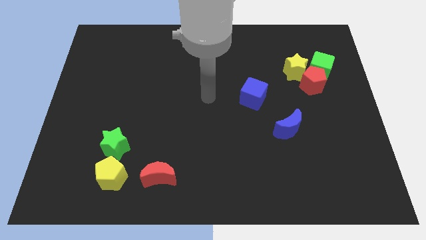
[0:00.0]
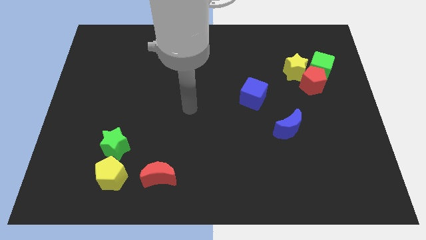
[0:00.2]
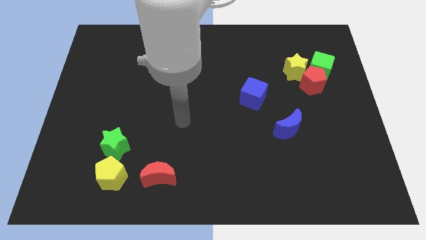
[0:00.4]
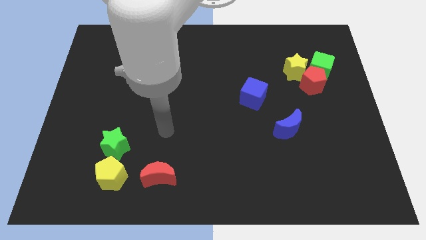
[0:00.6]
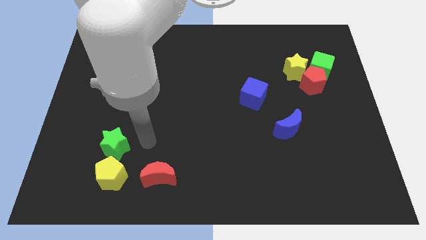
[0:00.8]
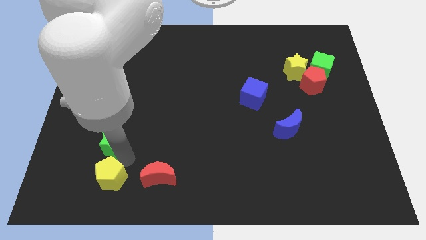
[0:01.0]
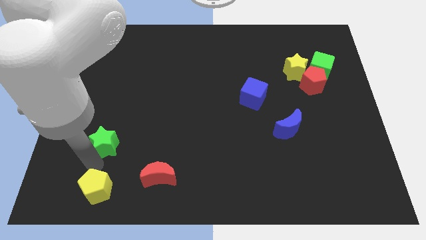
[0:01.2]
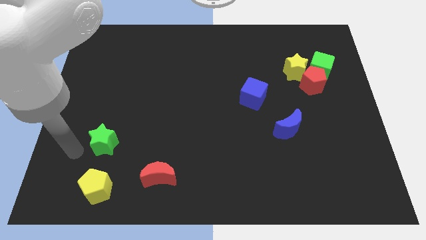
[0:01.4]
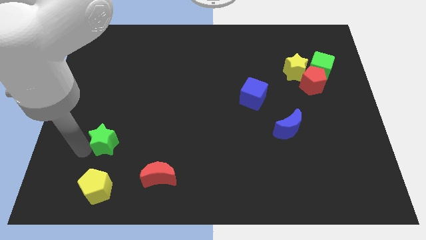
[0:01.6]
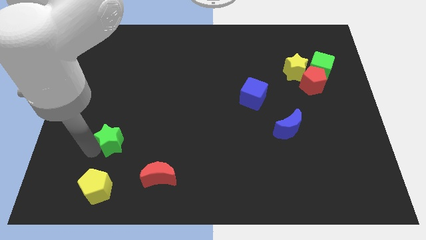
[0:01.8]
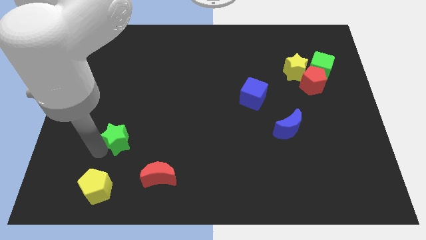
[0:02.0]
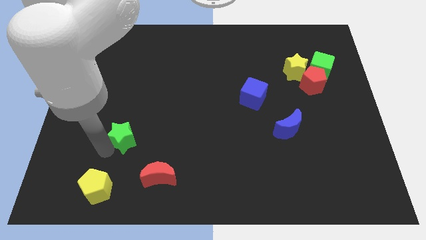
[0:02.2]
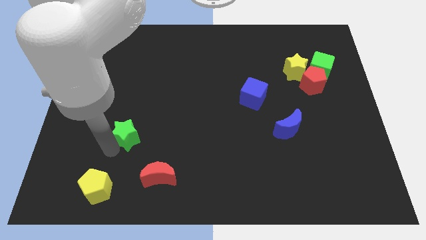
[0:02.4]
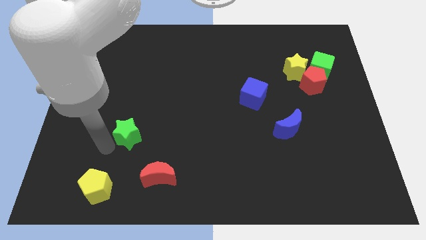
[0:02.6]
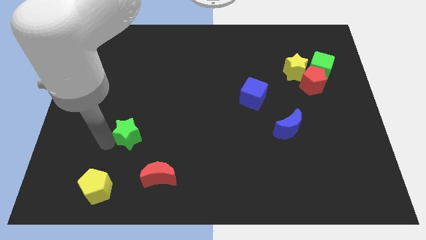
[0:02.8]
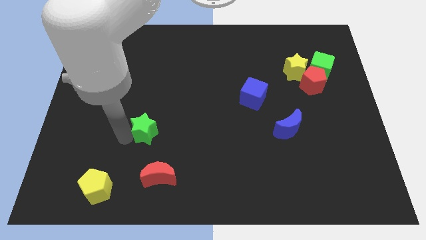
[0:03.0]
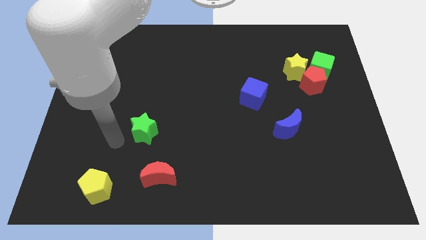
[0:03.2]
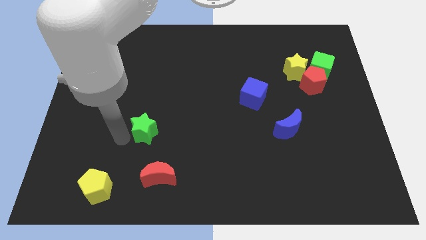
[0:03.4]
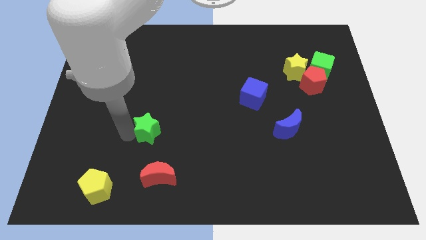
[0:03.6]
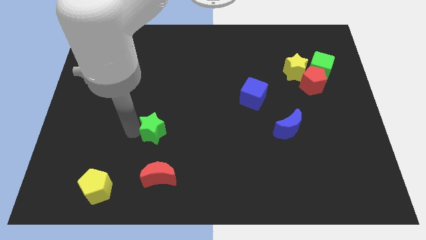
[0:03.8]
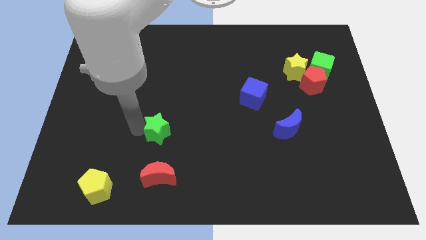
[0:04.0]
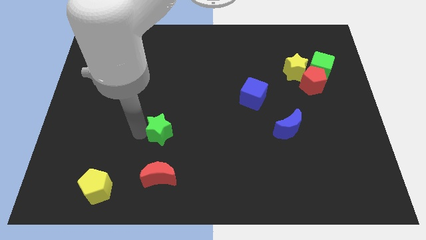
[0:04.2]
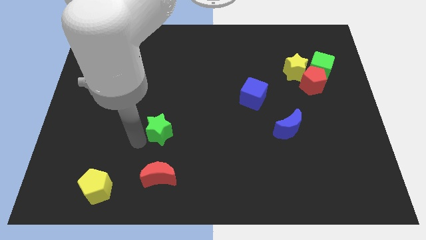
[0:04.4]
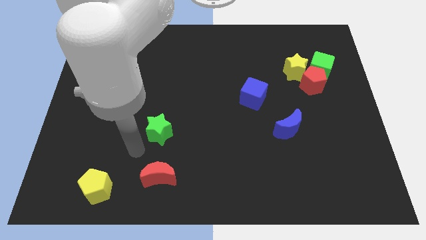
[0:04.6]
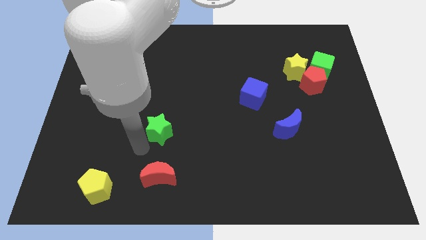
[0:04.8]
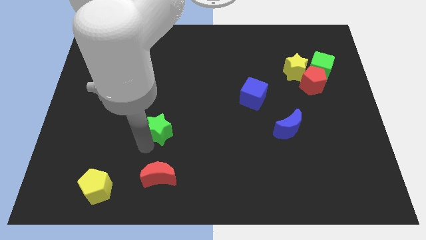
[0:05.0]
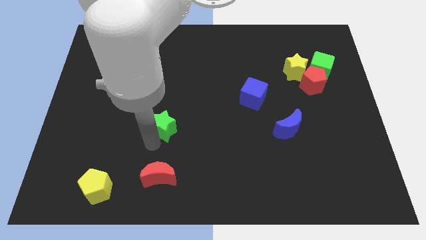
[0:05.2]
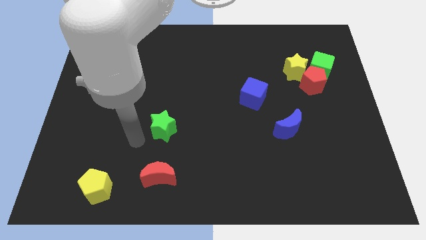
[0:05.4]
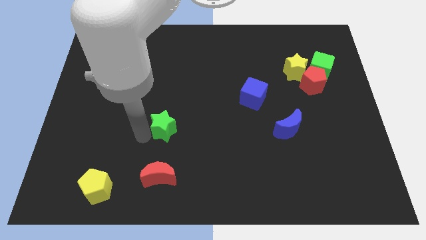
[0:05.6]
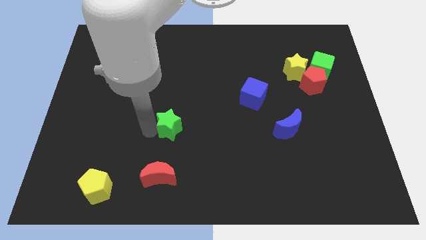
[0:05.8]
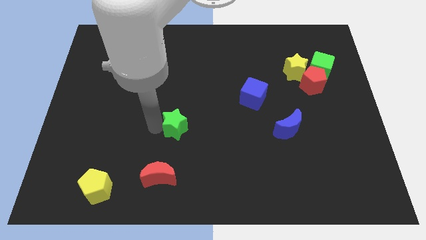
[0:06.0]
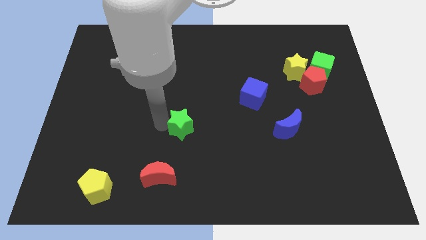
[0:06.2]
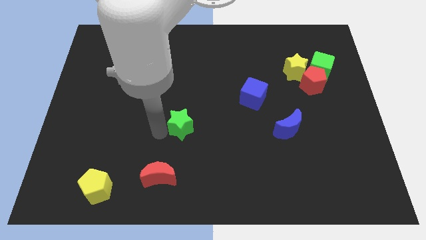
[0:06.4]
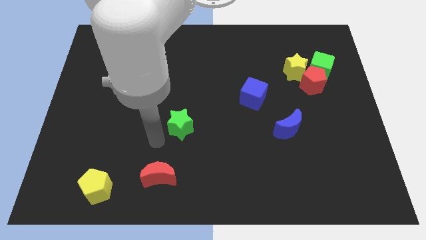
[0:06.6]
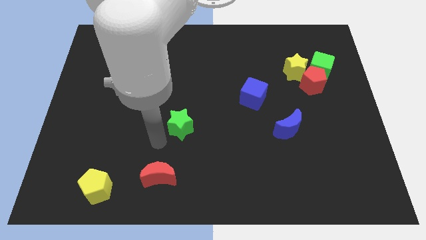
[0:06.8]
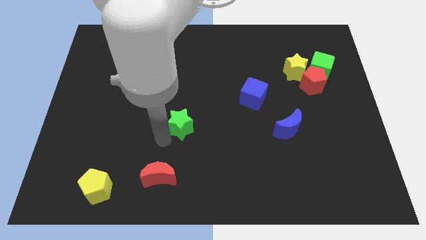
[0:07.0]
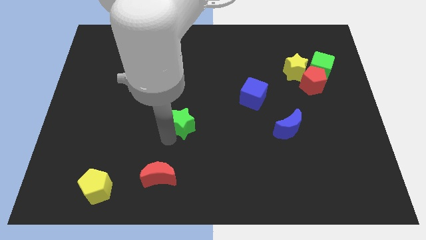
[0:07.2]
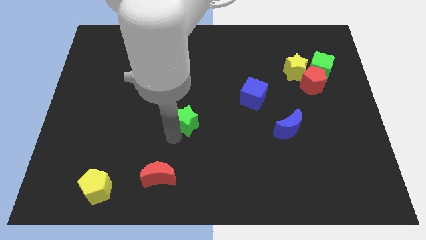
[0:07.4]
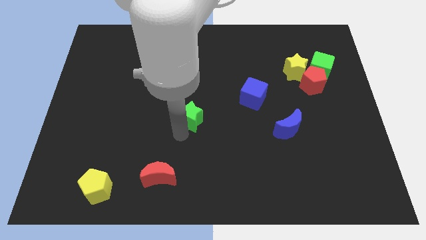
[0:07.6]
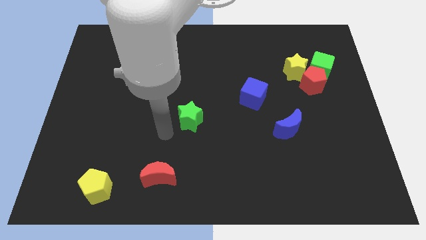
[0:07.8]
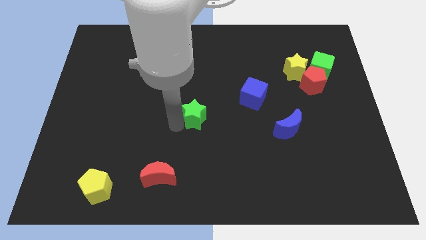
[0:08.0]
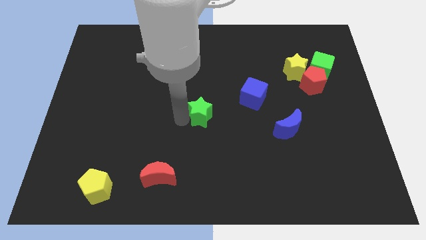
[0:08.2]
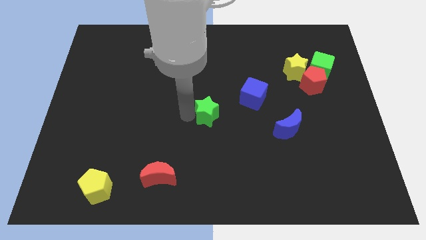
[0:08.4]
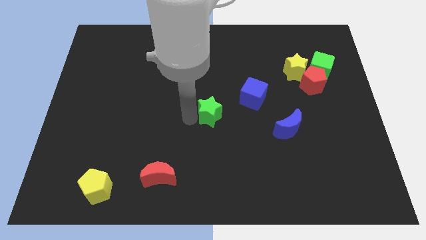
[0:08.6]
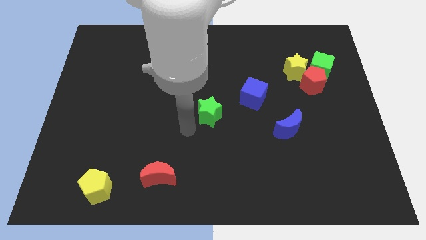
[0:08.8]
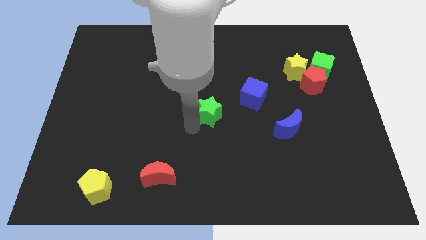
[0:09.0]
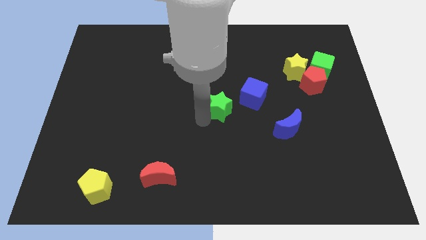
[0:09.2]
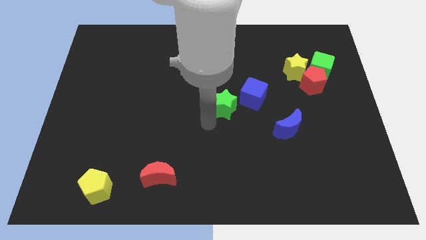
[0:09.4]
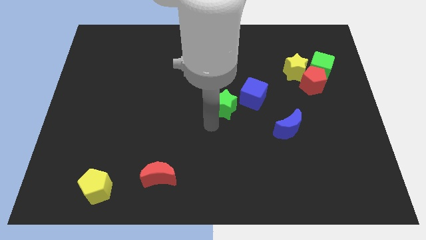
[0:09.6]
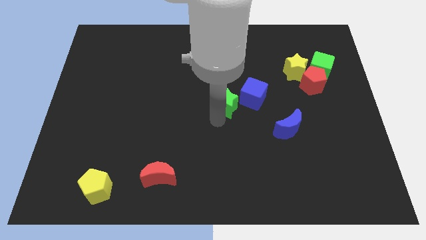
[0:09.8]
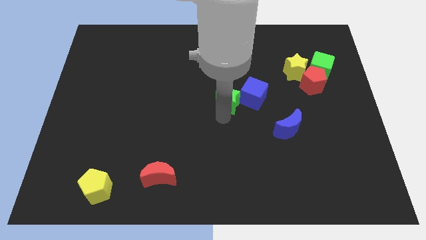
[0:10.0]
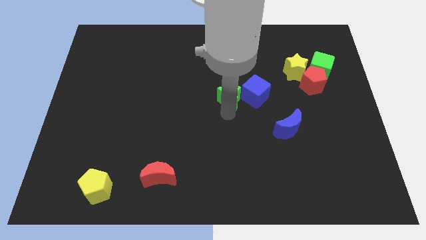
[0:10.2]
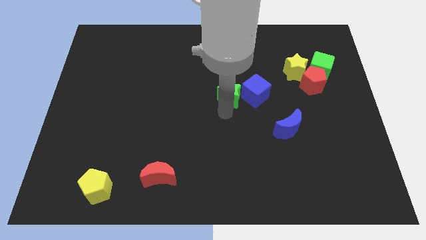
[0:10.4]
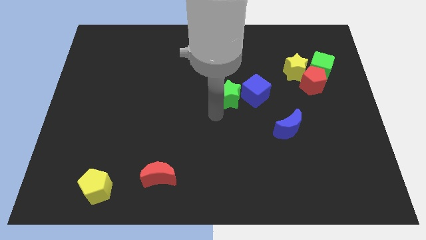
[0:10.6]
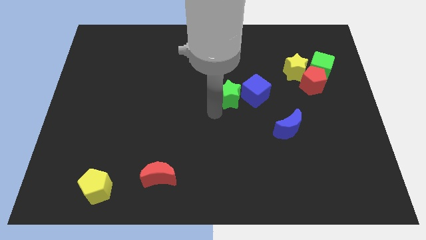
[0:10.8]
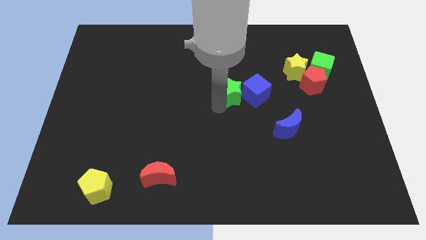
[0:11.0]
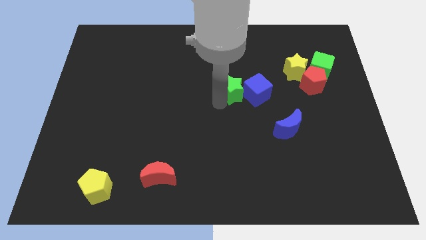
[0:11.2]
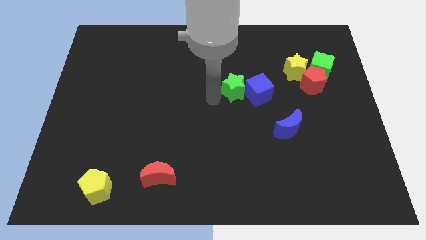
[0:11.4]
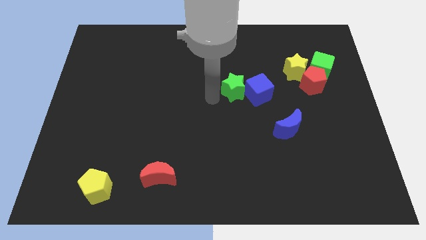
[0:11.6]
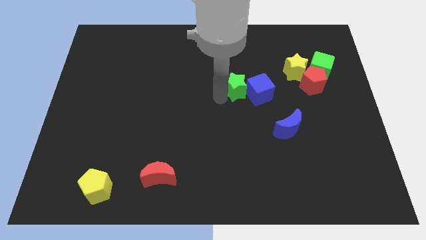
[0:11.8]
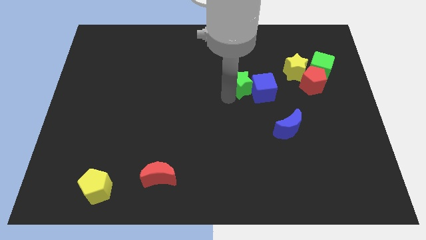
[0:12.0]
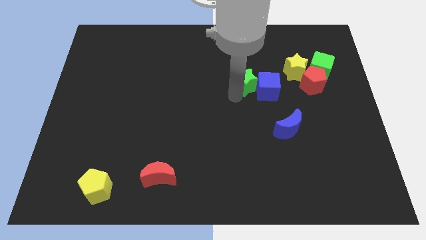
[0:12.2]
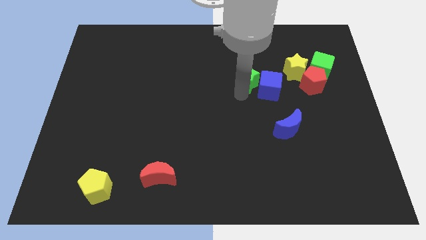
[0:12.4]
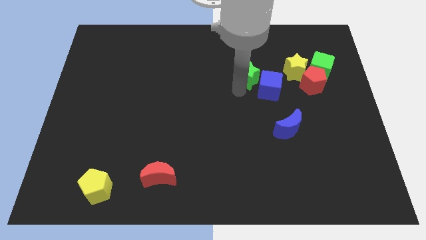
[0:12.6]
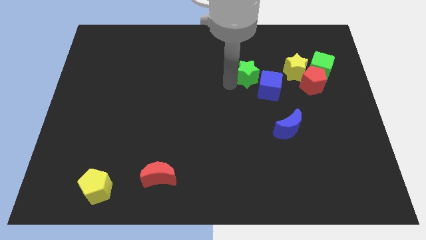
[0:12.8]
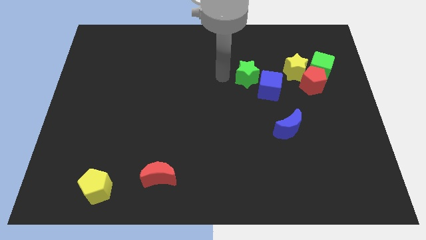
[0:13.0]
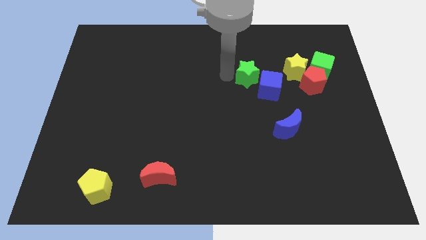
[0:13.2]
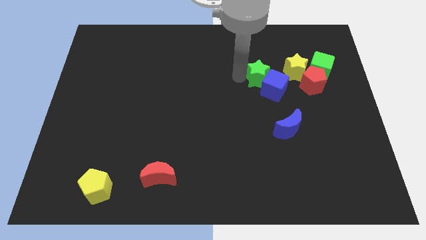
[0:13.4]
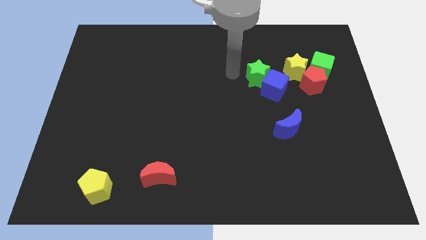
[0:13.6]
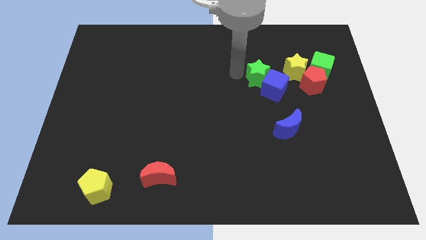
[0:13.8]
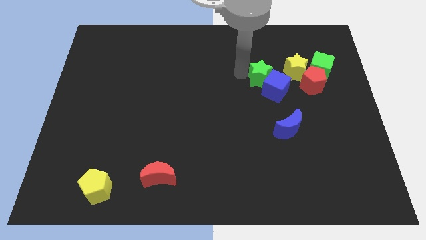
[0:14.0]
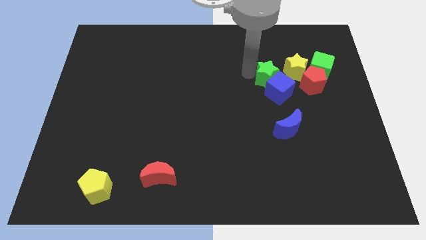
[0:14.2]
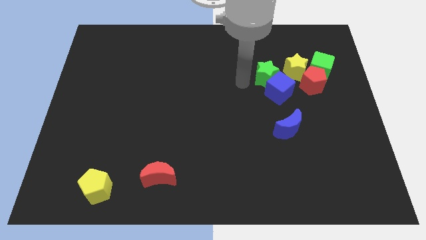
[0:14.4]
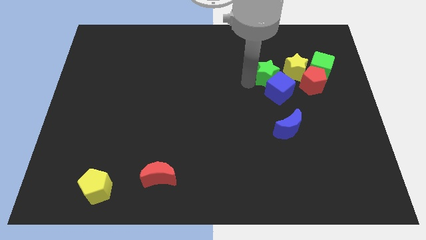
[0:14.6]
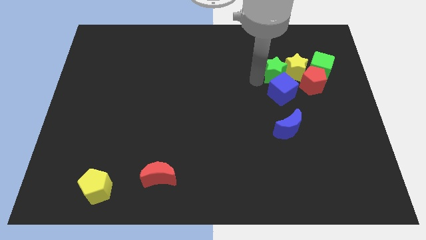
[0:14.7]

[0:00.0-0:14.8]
put the green star close to the yellow star
